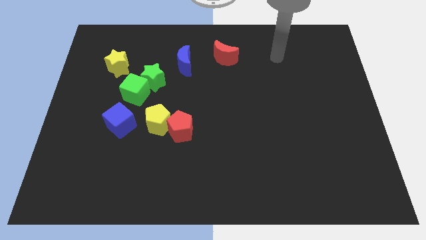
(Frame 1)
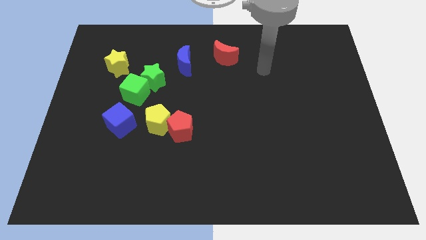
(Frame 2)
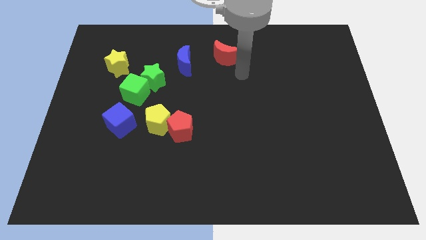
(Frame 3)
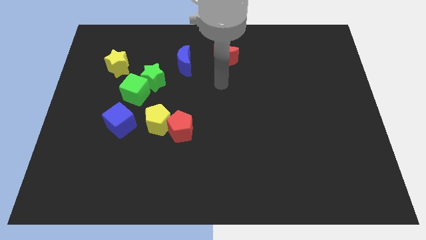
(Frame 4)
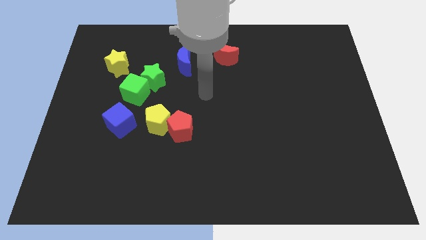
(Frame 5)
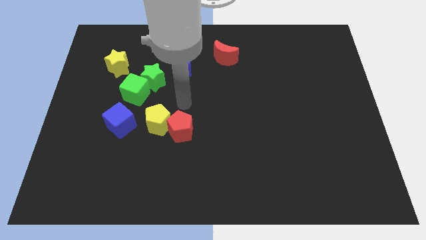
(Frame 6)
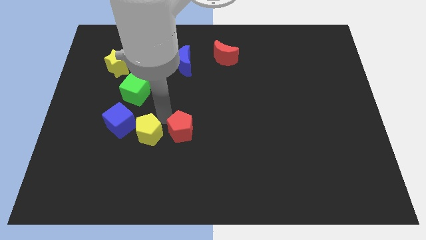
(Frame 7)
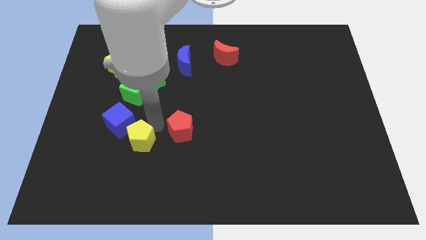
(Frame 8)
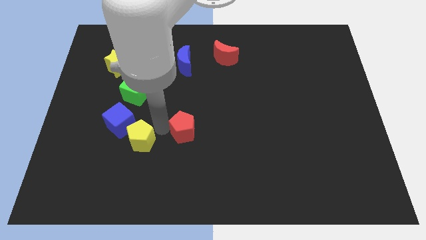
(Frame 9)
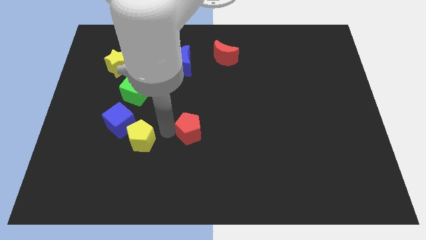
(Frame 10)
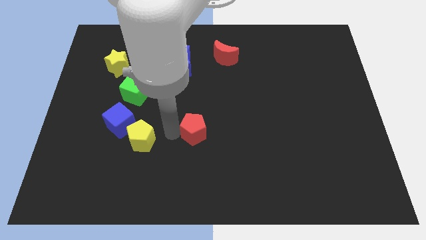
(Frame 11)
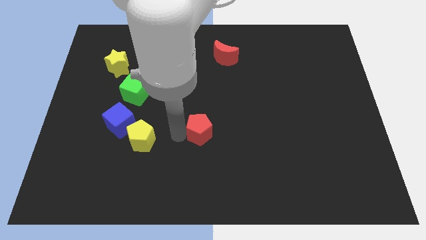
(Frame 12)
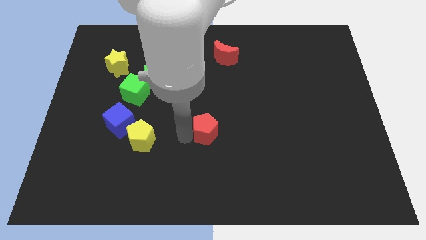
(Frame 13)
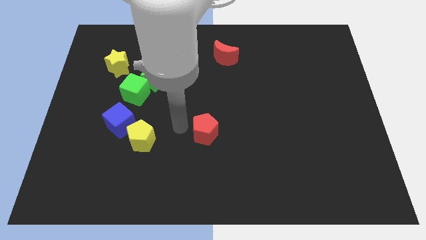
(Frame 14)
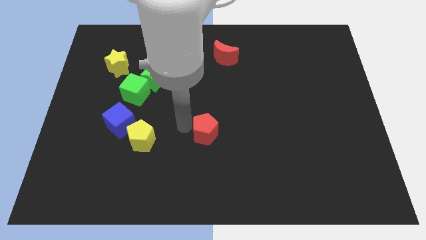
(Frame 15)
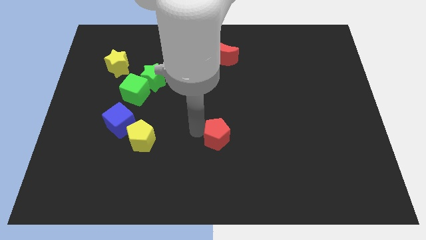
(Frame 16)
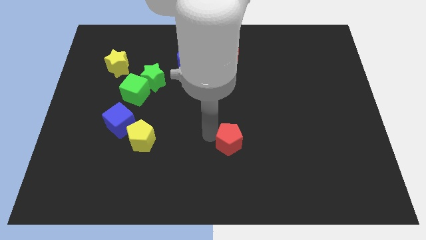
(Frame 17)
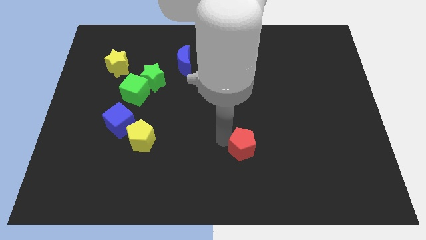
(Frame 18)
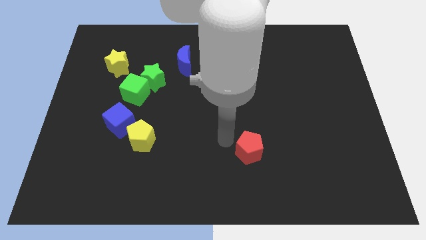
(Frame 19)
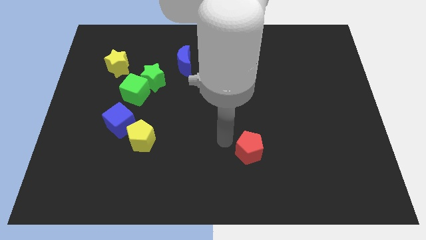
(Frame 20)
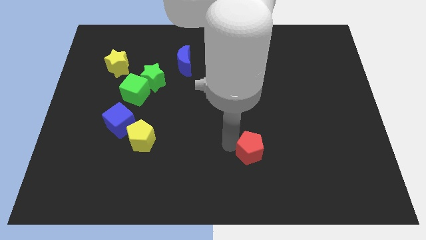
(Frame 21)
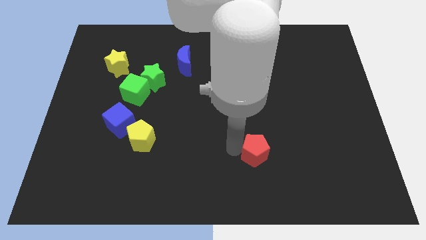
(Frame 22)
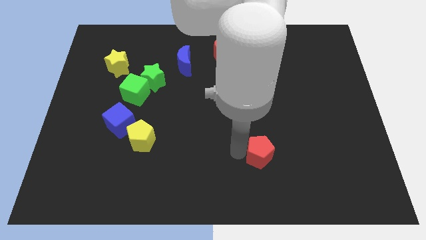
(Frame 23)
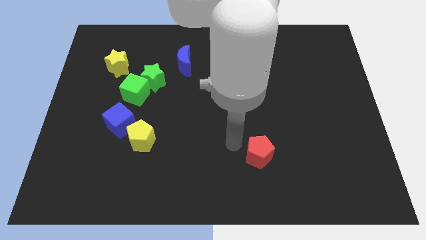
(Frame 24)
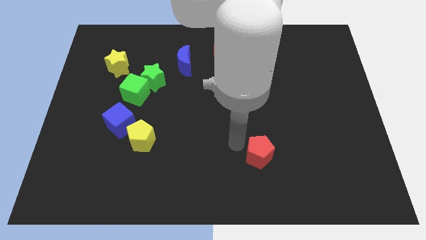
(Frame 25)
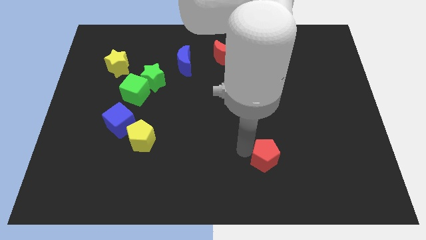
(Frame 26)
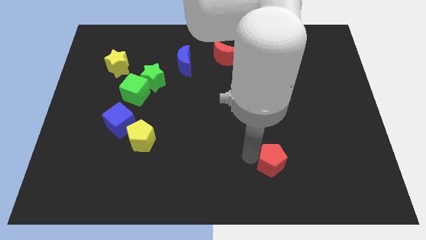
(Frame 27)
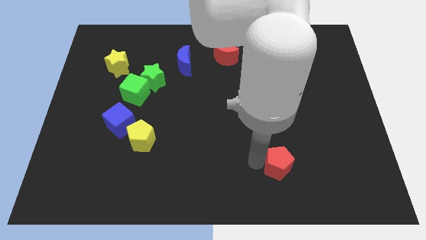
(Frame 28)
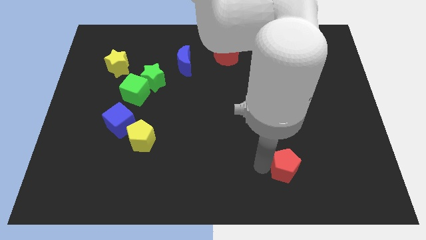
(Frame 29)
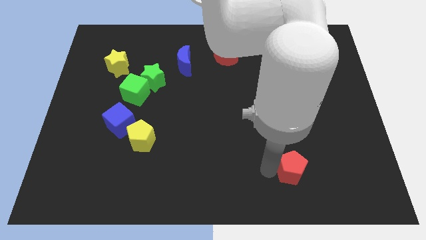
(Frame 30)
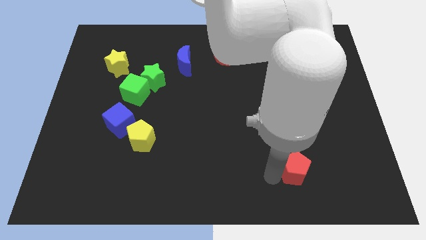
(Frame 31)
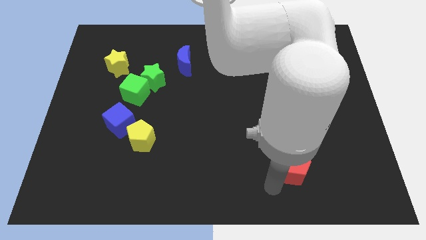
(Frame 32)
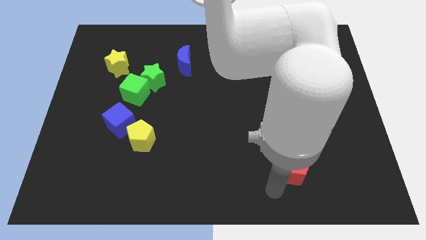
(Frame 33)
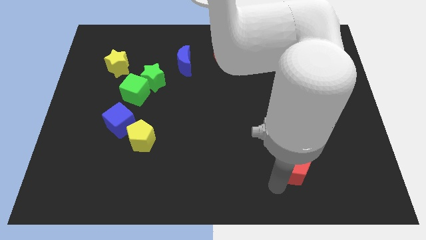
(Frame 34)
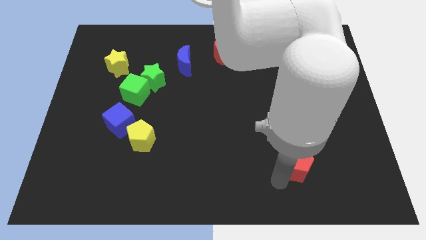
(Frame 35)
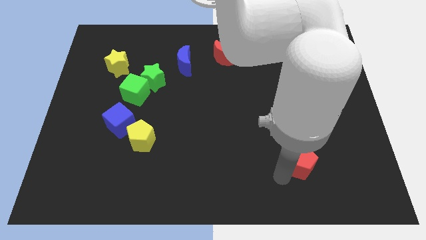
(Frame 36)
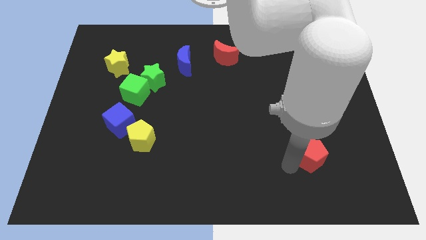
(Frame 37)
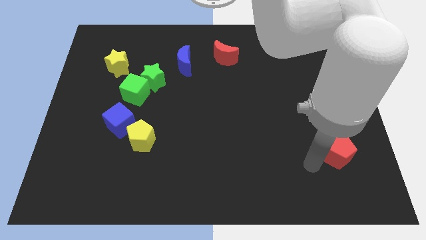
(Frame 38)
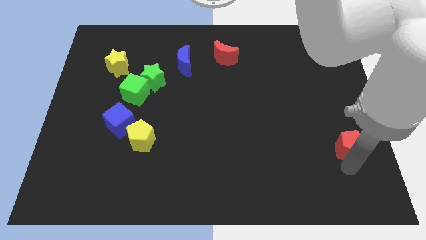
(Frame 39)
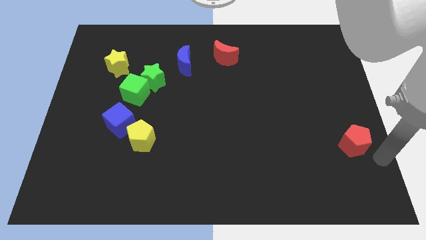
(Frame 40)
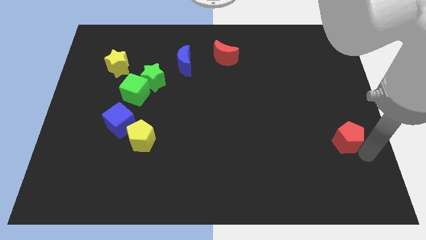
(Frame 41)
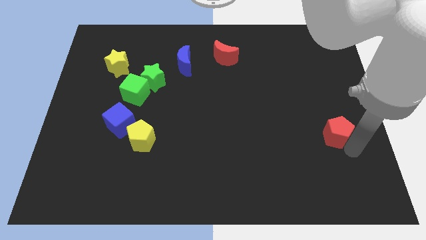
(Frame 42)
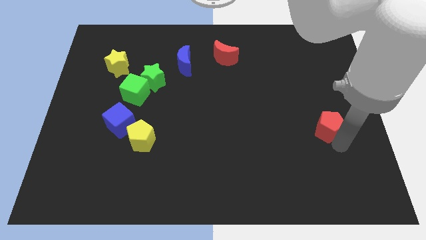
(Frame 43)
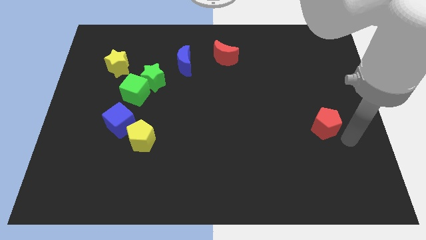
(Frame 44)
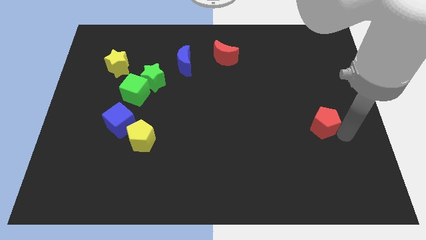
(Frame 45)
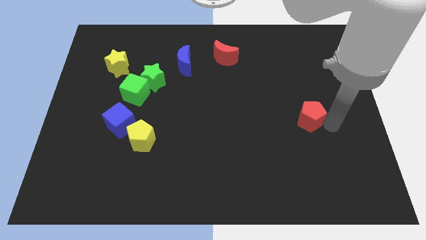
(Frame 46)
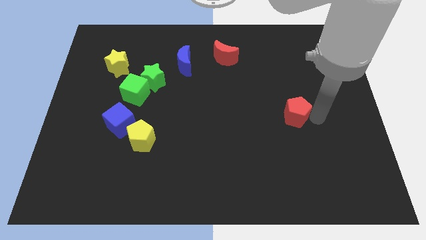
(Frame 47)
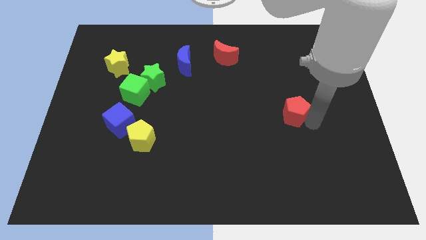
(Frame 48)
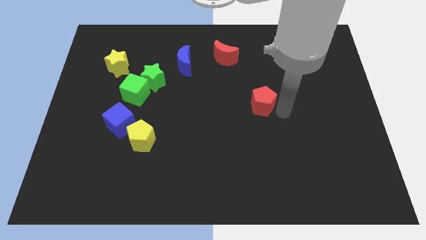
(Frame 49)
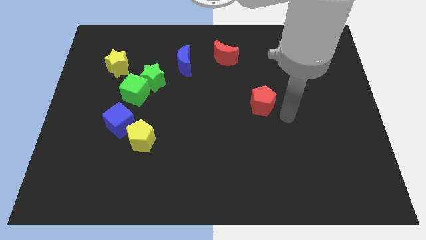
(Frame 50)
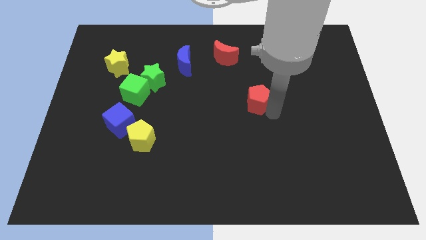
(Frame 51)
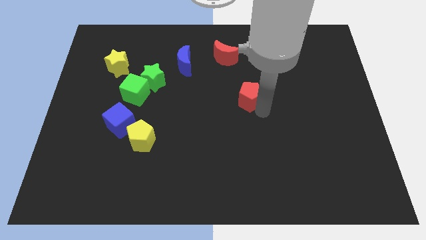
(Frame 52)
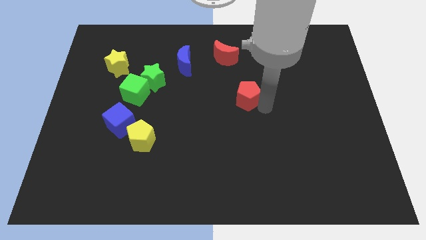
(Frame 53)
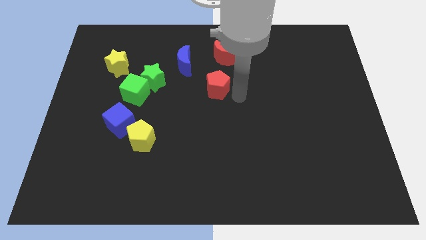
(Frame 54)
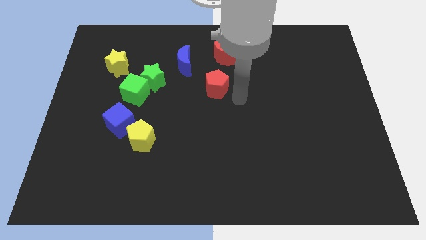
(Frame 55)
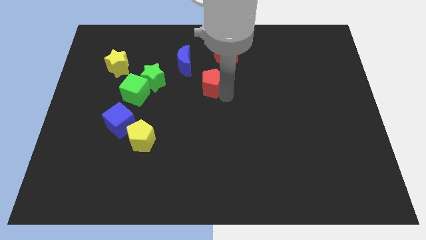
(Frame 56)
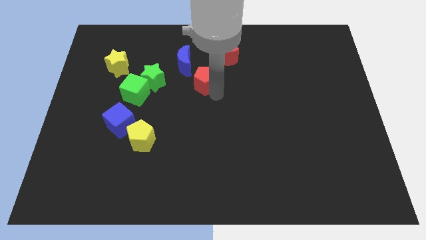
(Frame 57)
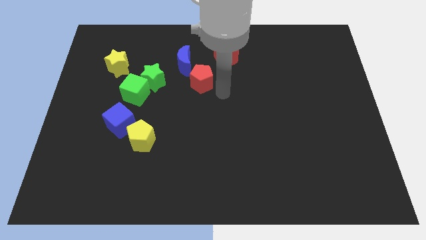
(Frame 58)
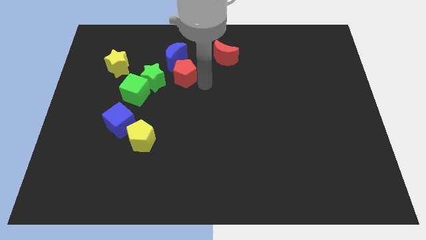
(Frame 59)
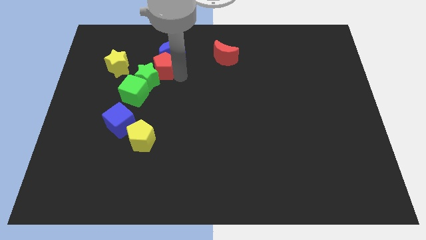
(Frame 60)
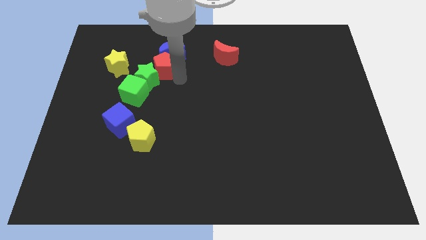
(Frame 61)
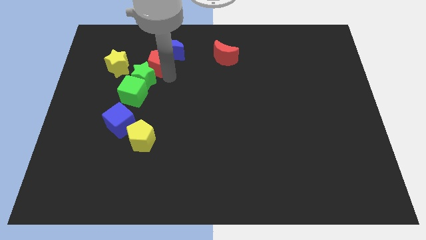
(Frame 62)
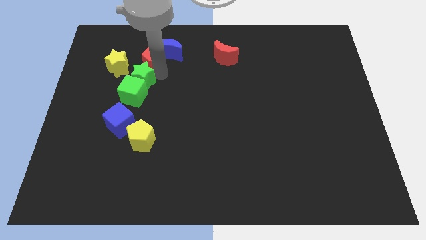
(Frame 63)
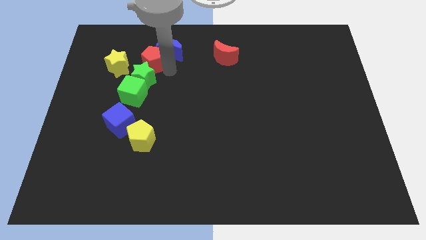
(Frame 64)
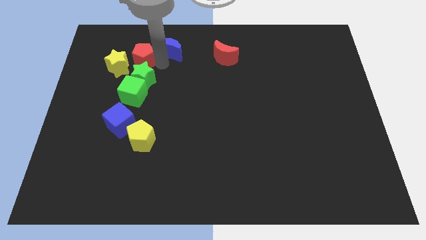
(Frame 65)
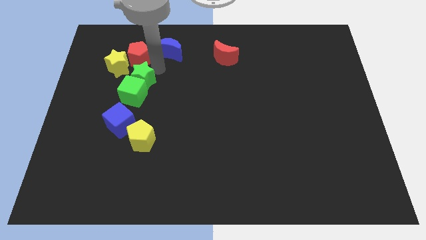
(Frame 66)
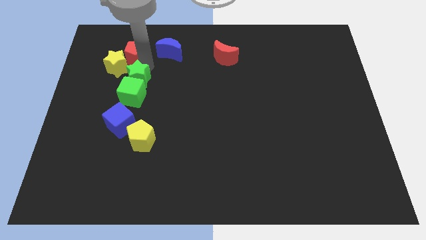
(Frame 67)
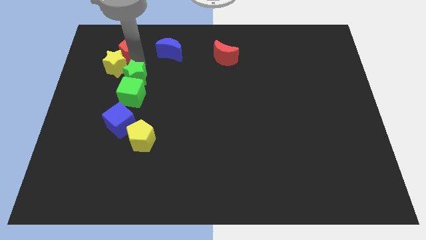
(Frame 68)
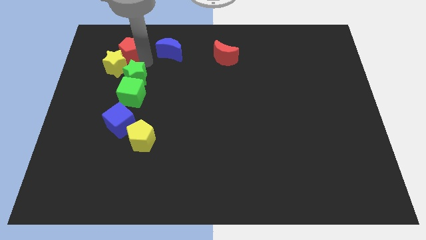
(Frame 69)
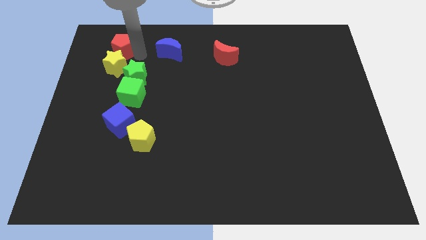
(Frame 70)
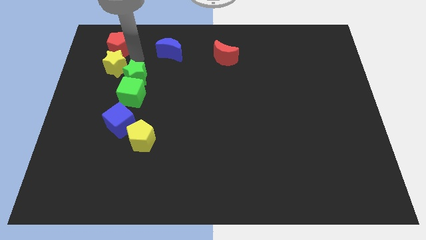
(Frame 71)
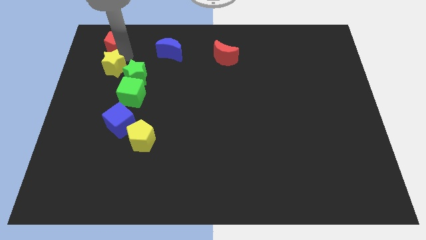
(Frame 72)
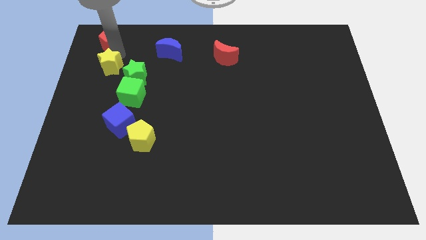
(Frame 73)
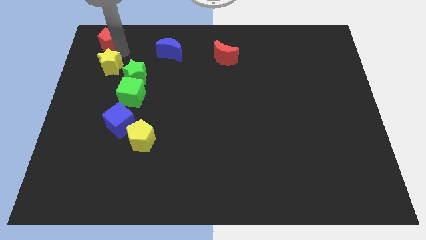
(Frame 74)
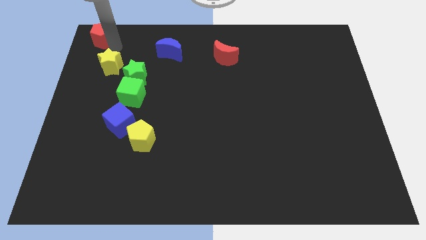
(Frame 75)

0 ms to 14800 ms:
slide the red pentagon to the upper left corner

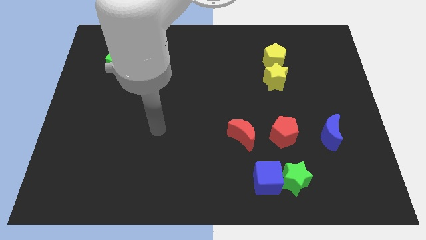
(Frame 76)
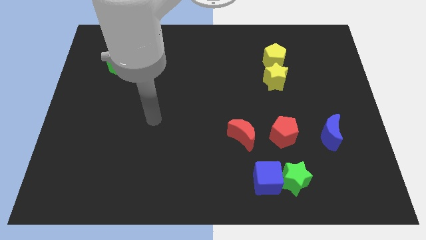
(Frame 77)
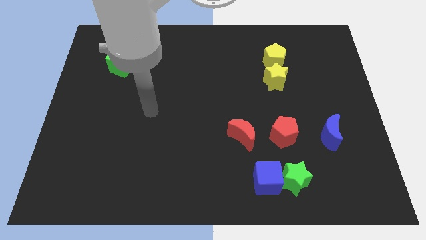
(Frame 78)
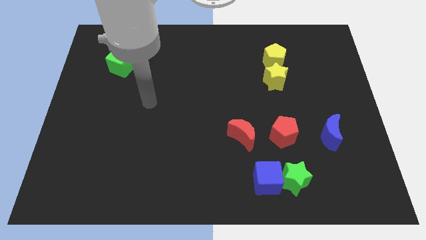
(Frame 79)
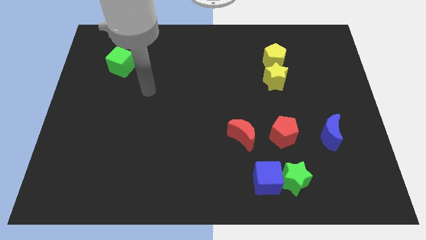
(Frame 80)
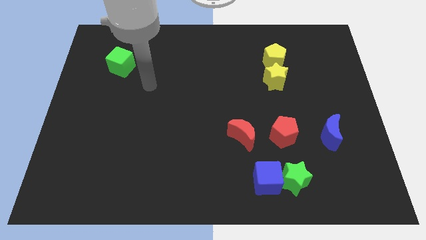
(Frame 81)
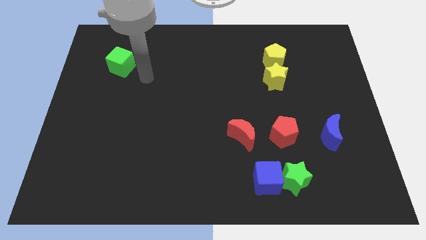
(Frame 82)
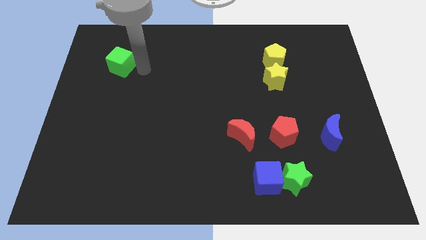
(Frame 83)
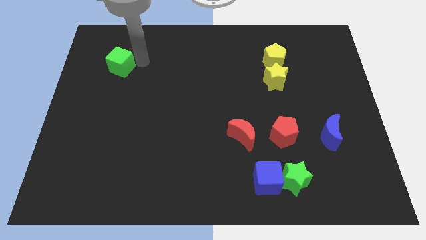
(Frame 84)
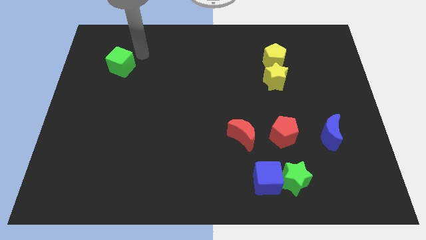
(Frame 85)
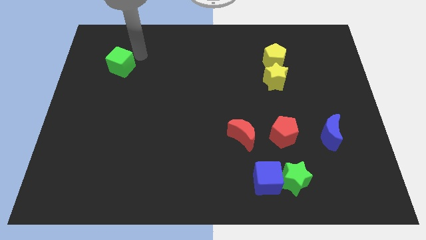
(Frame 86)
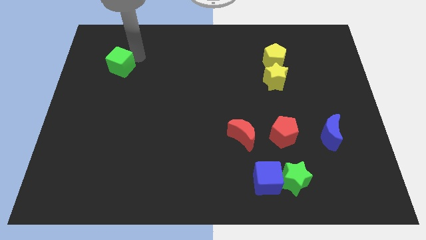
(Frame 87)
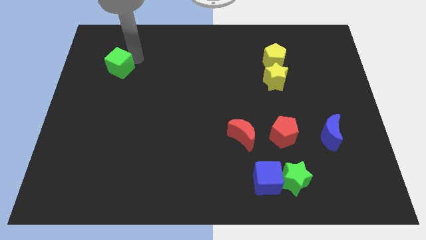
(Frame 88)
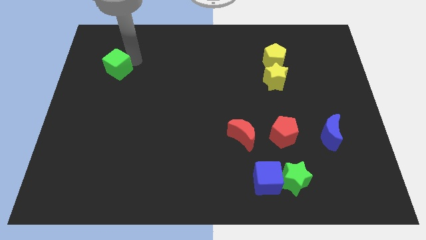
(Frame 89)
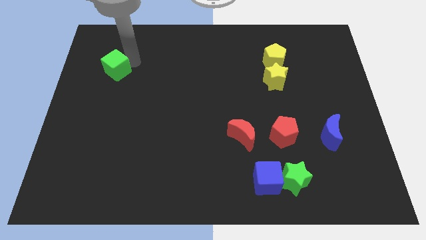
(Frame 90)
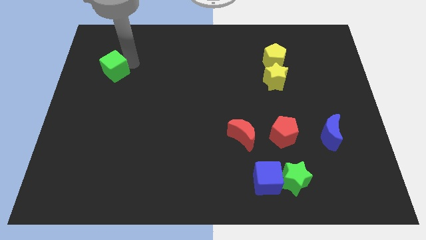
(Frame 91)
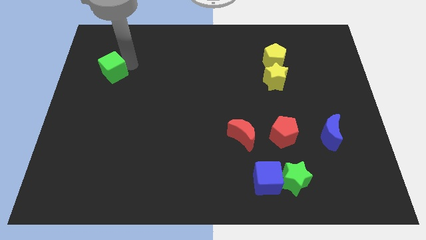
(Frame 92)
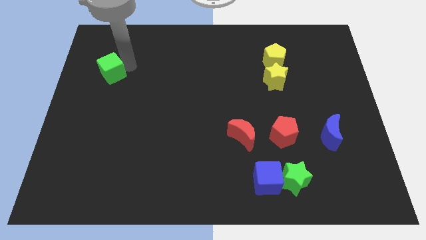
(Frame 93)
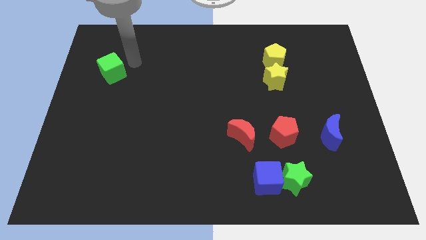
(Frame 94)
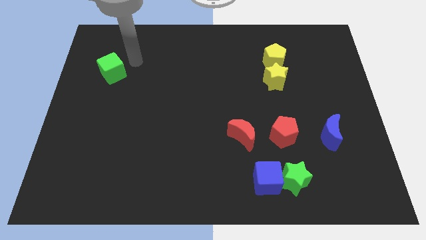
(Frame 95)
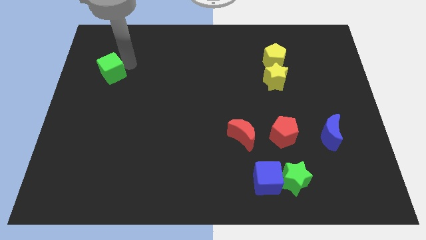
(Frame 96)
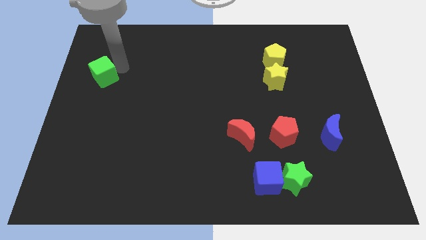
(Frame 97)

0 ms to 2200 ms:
slide the green cube to the center left
